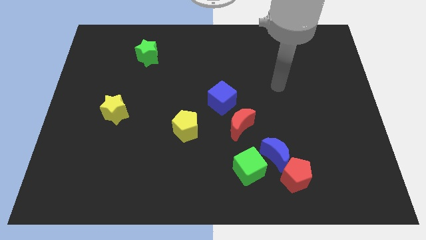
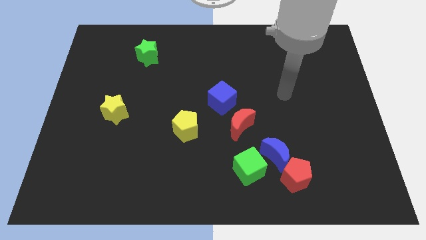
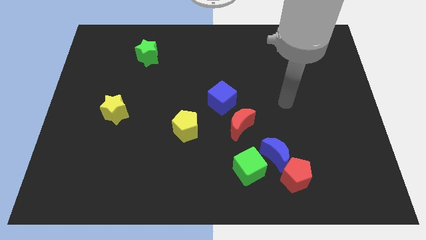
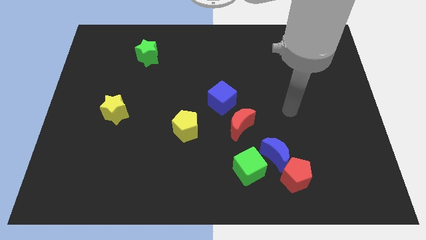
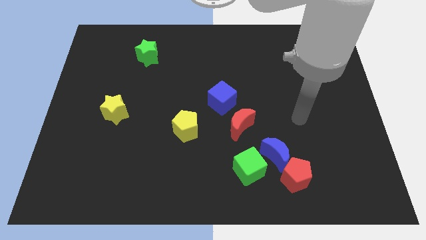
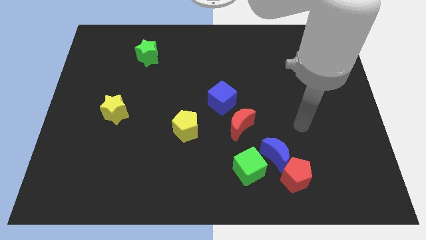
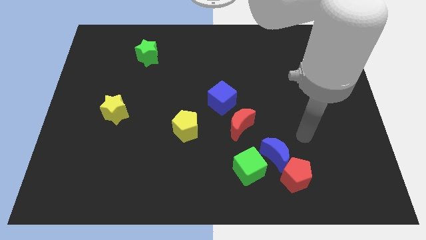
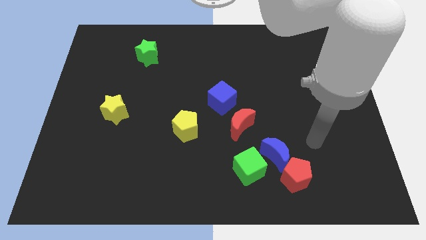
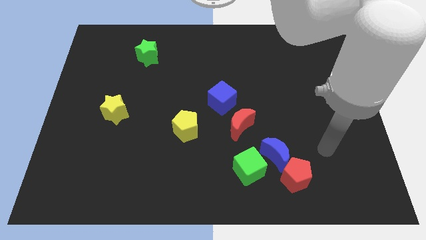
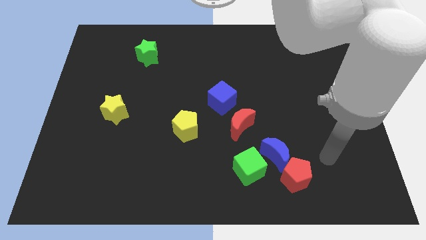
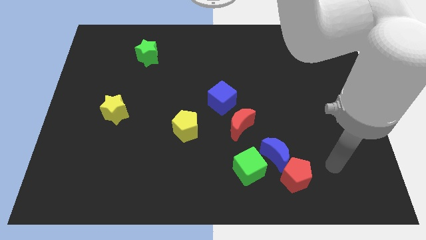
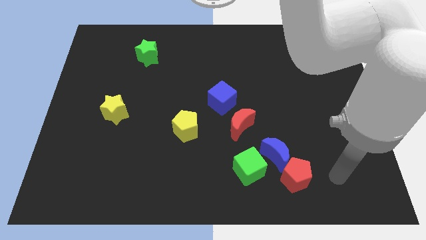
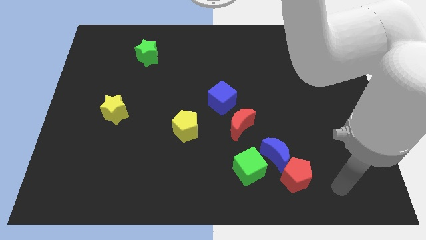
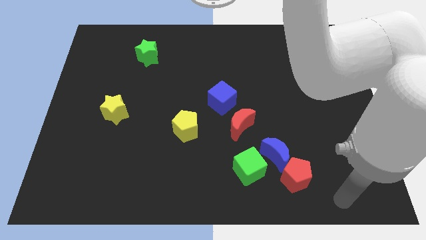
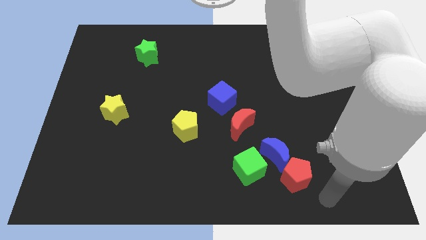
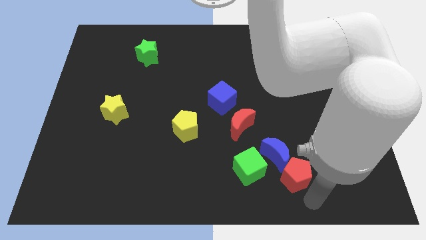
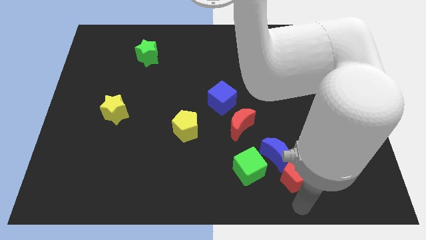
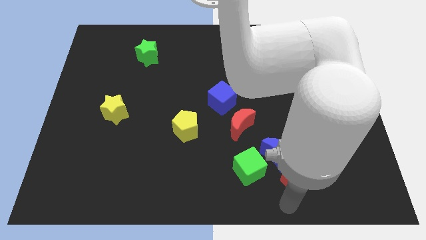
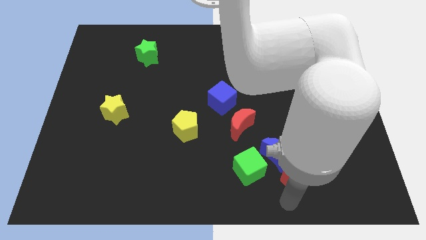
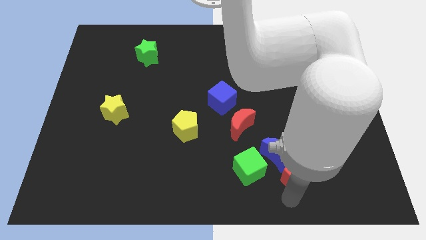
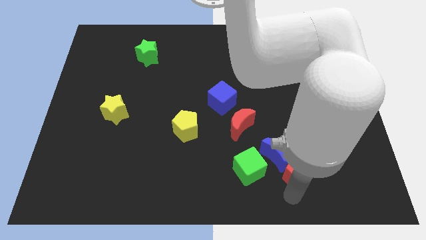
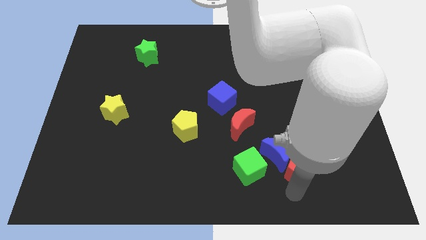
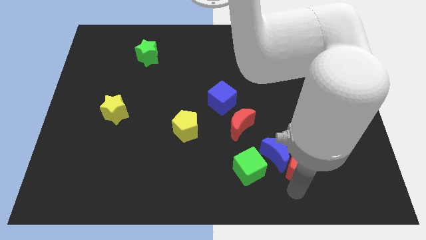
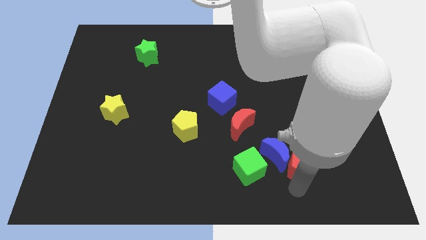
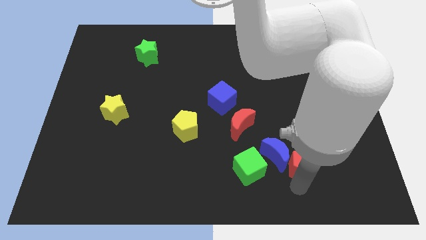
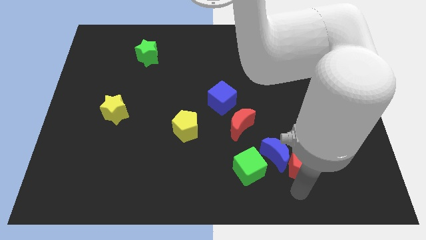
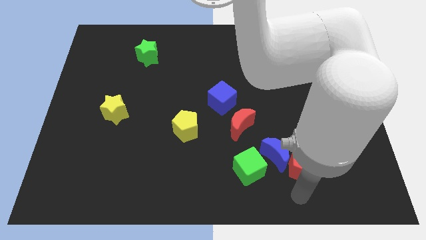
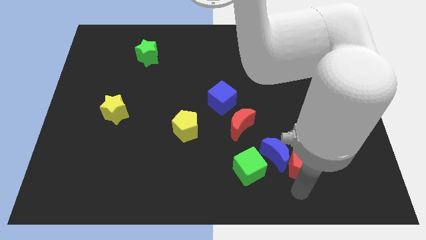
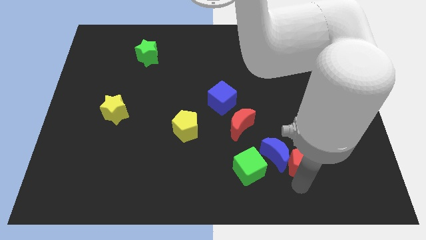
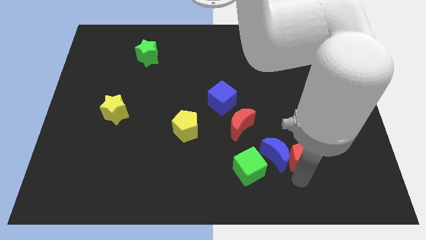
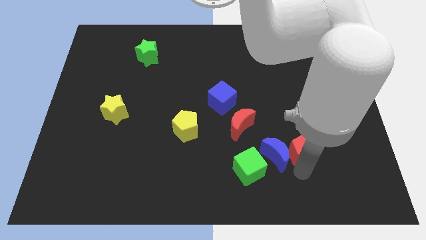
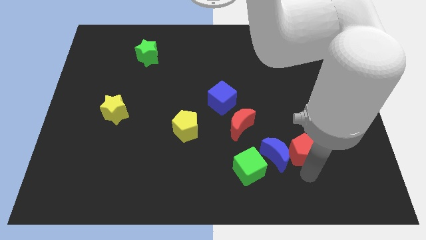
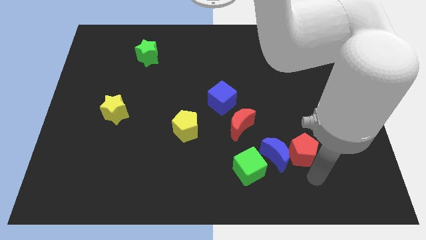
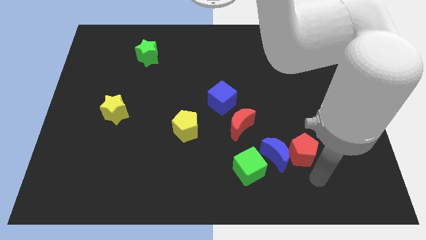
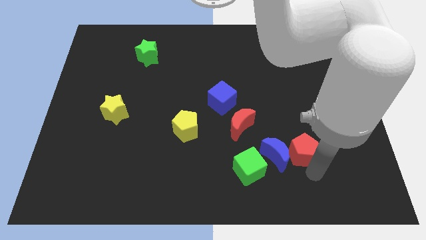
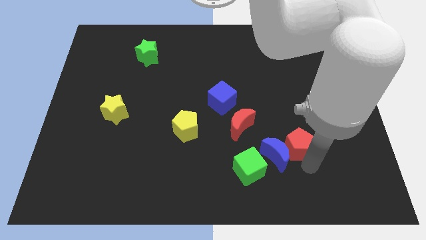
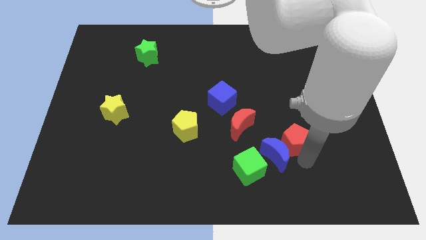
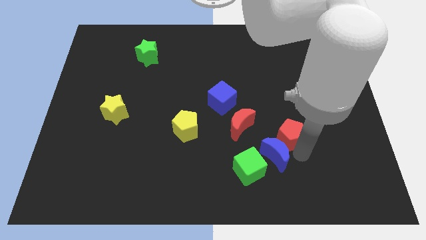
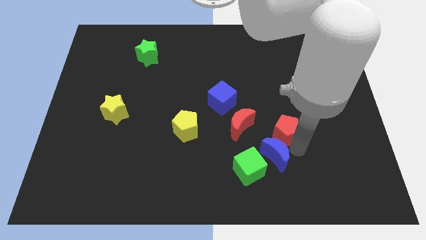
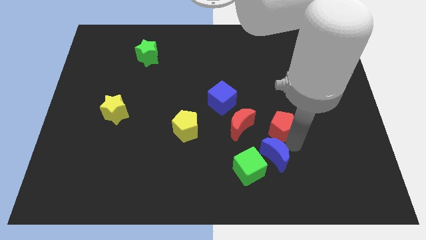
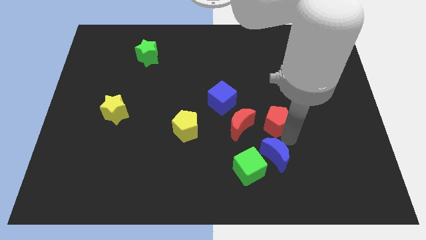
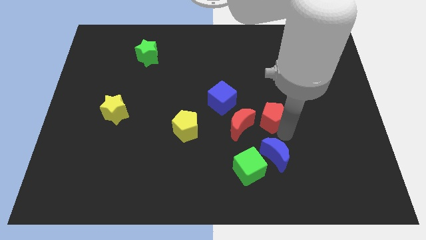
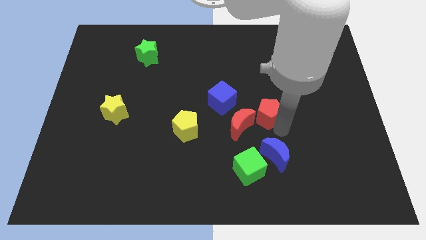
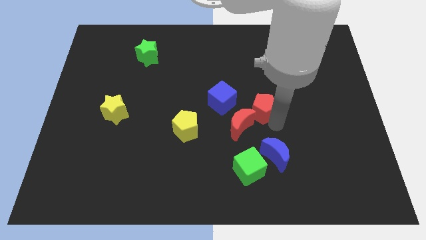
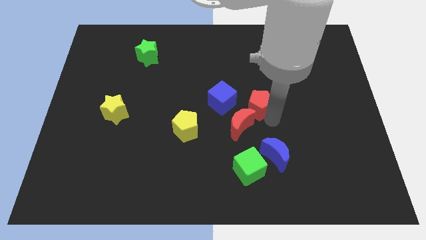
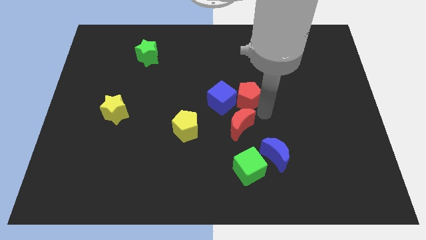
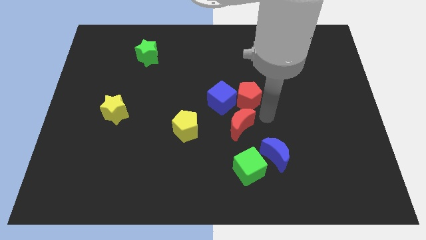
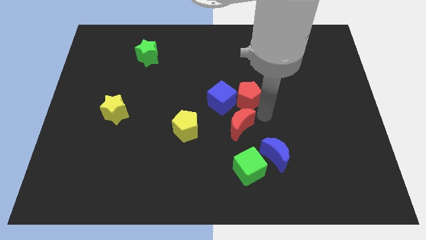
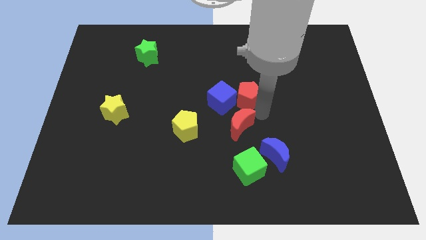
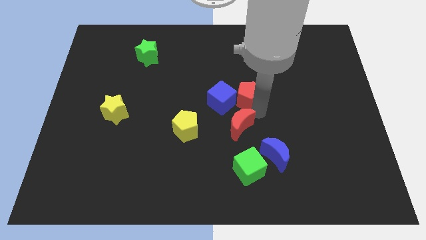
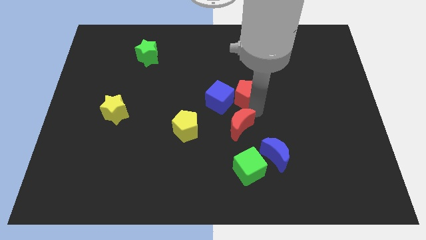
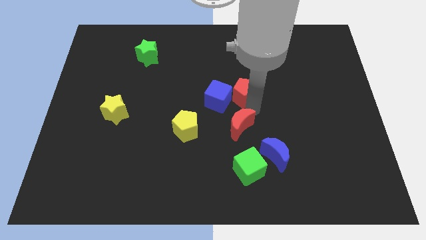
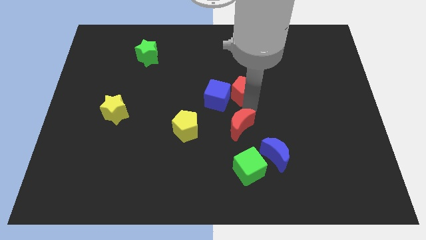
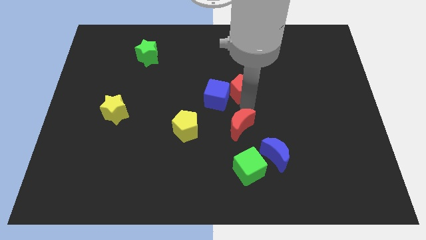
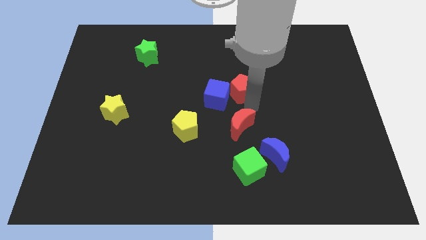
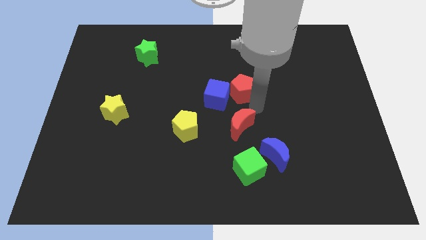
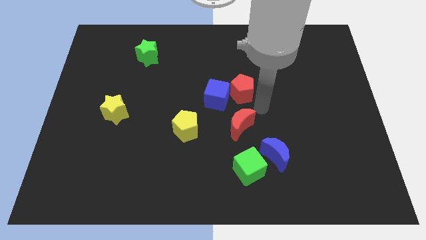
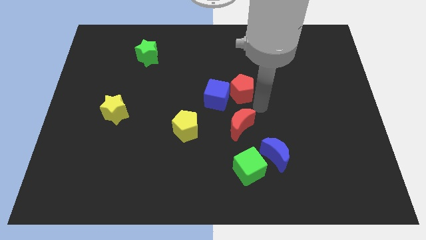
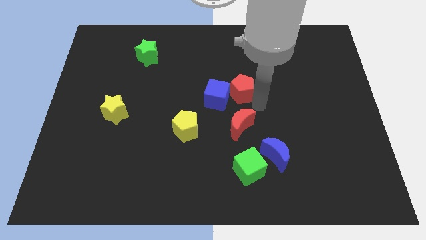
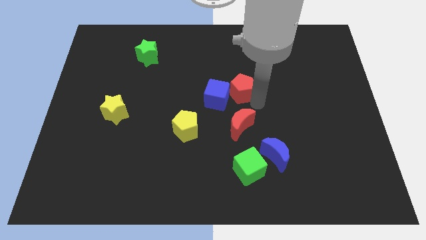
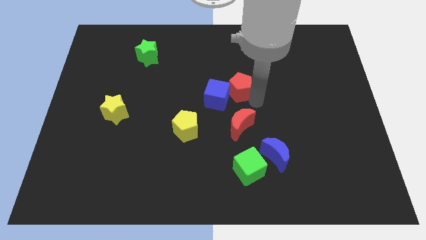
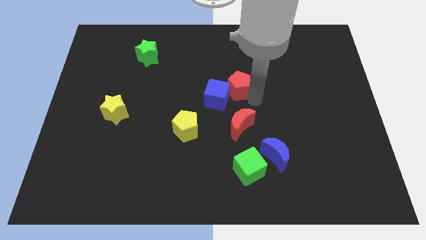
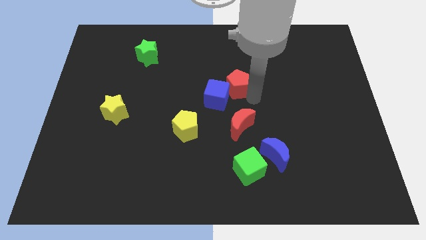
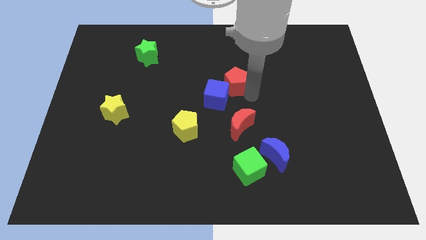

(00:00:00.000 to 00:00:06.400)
slide the red pentagon to the top of the blue cube

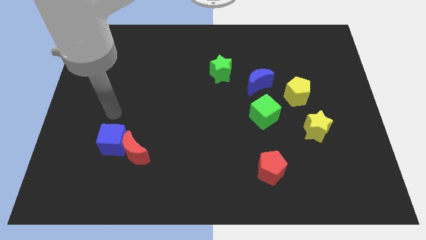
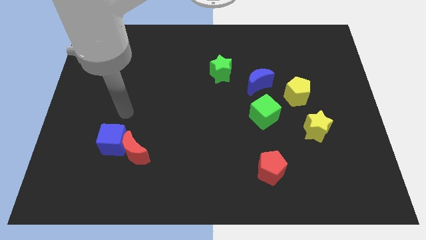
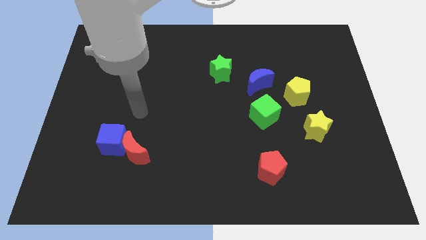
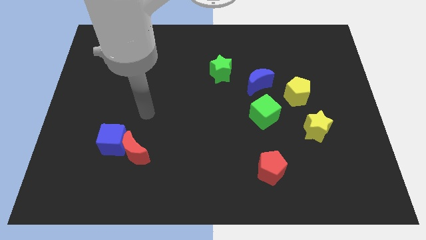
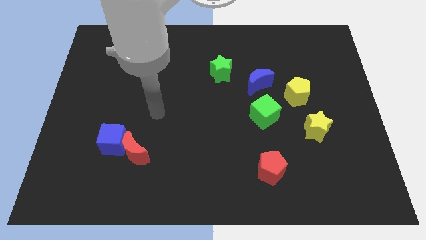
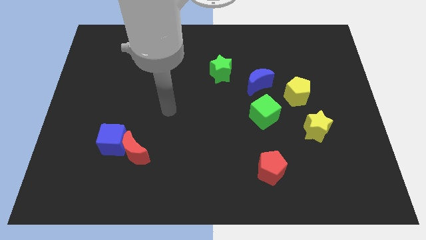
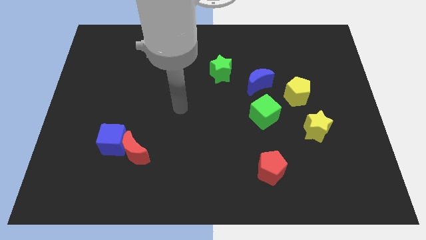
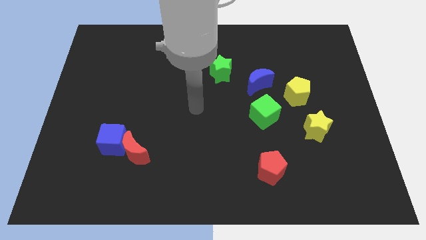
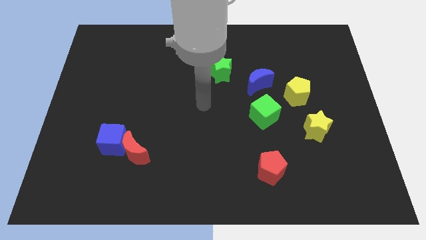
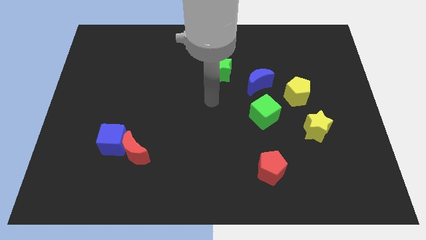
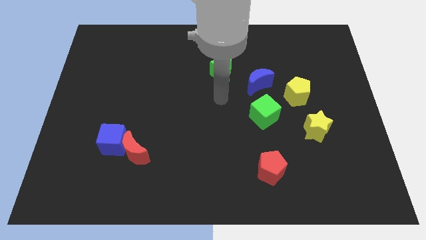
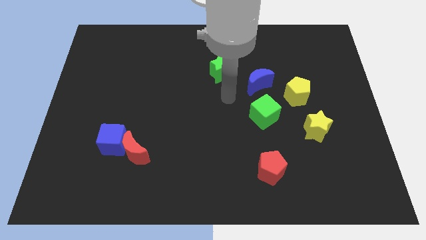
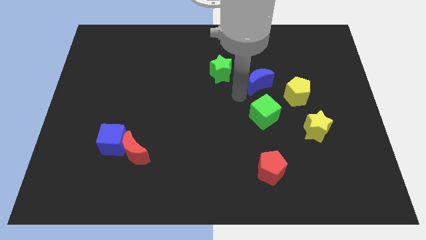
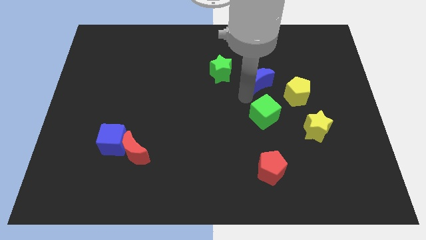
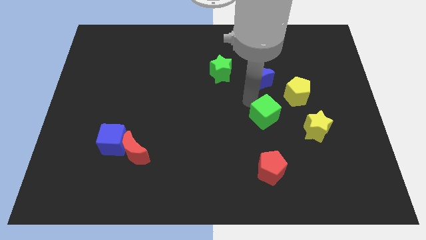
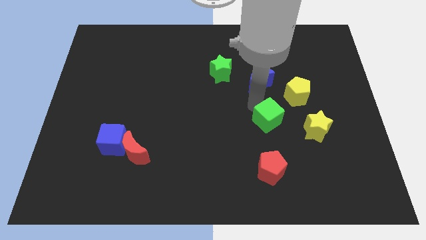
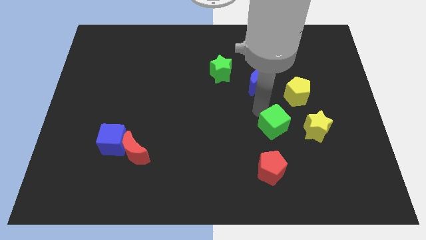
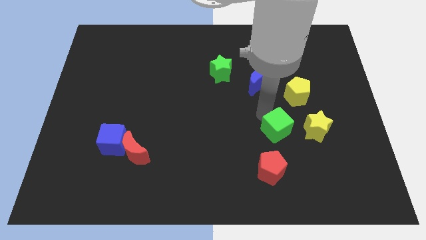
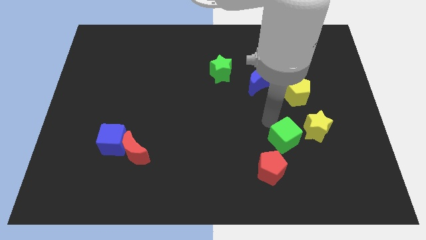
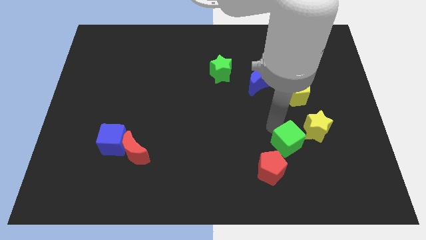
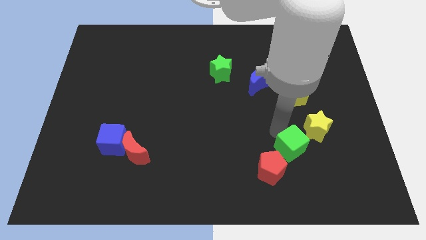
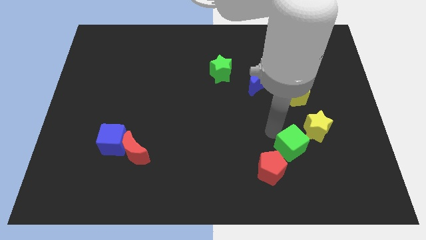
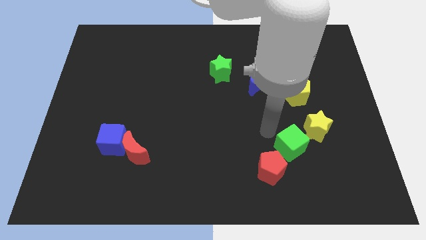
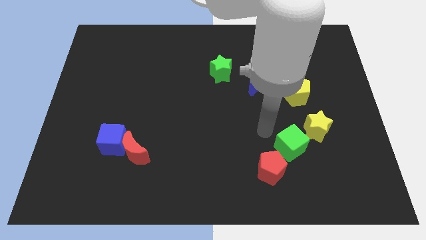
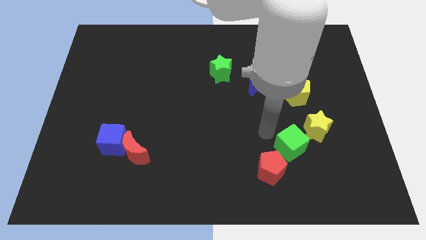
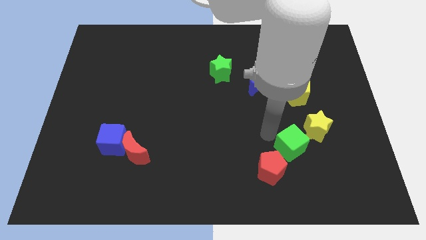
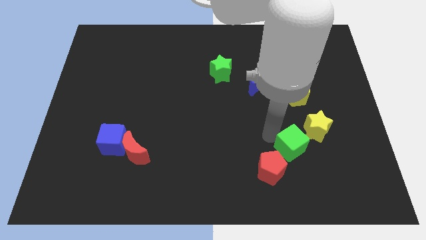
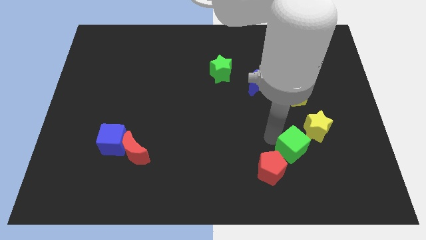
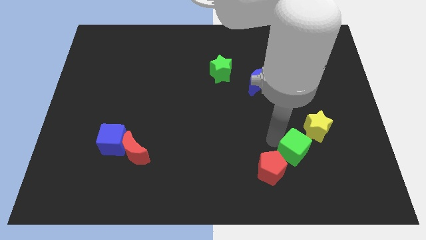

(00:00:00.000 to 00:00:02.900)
move the green cube right of the red pentagon
